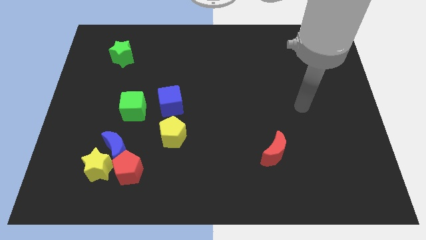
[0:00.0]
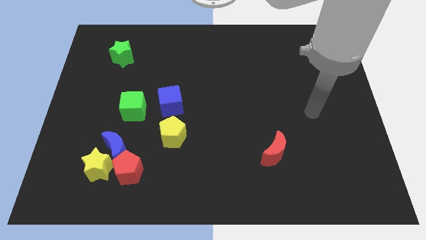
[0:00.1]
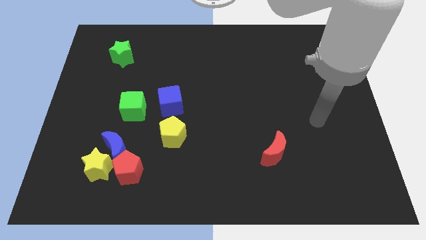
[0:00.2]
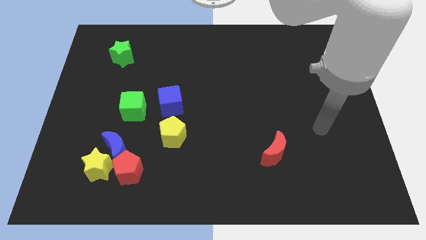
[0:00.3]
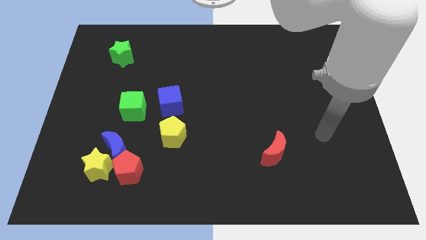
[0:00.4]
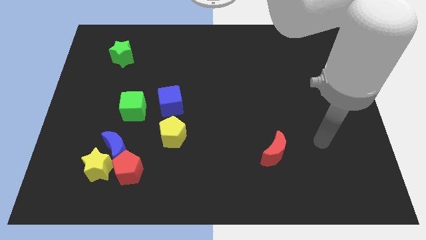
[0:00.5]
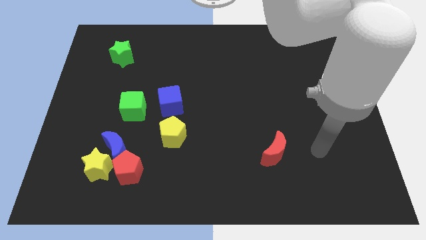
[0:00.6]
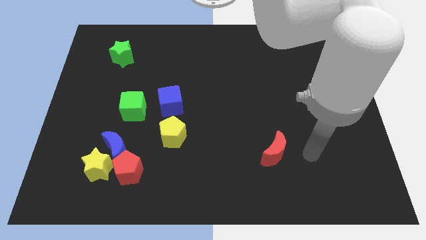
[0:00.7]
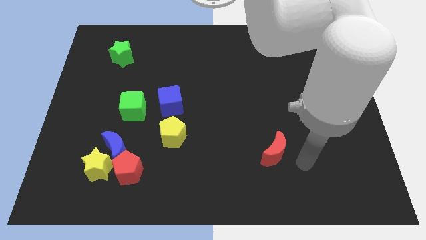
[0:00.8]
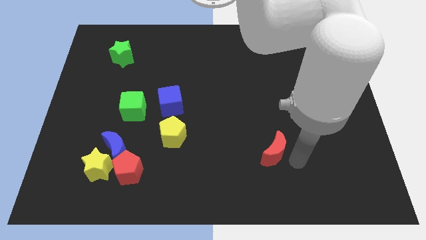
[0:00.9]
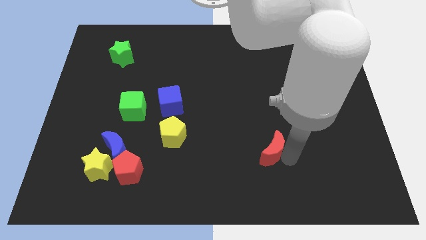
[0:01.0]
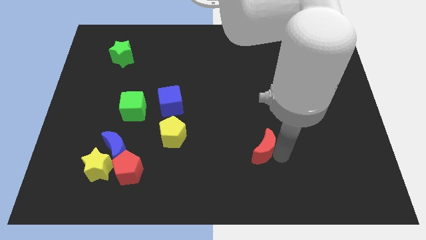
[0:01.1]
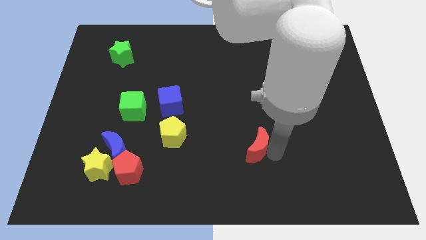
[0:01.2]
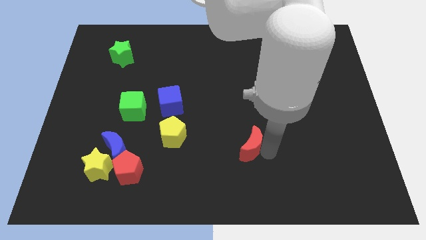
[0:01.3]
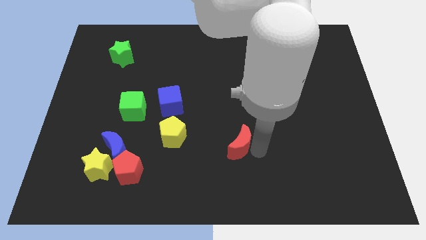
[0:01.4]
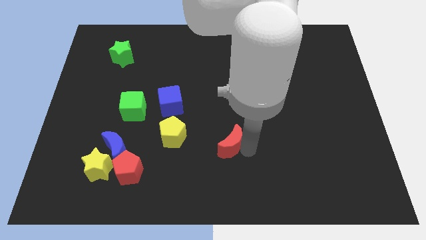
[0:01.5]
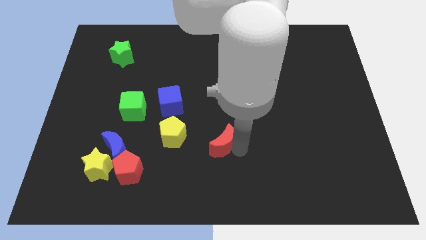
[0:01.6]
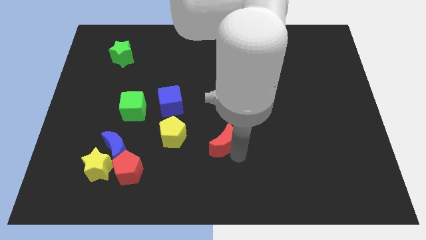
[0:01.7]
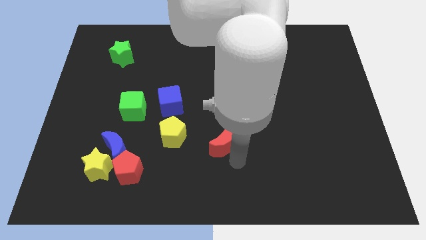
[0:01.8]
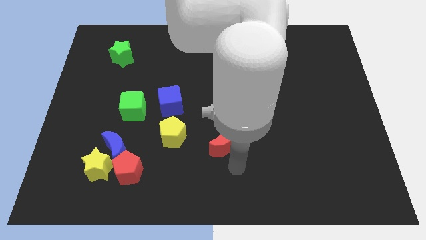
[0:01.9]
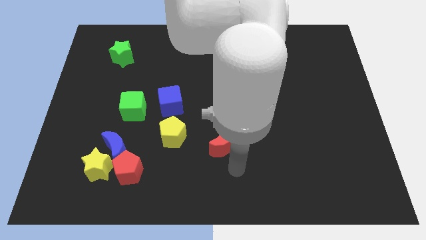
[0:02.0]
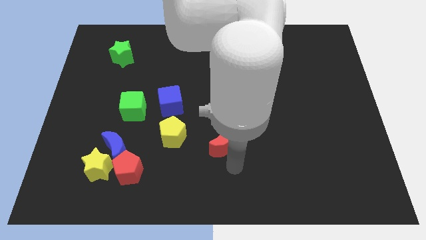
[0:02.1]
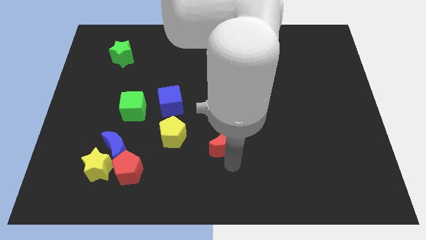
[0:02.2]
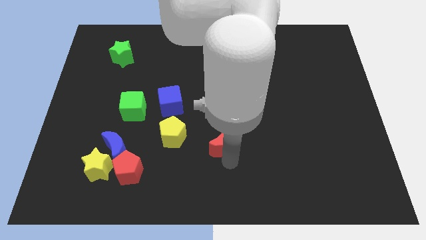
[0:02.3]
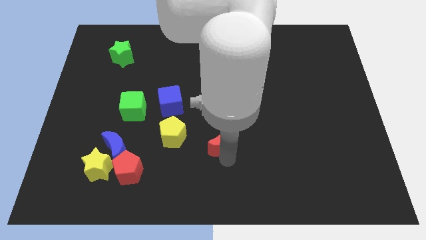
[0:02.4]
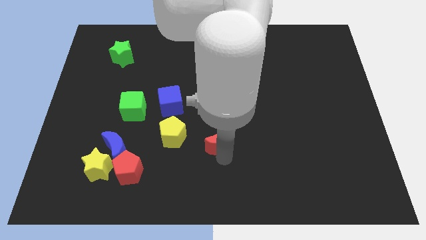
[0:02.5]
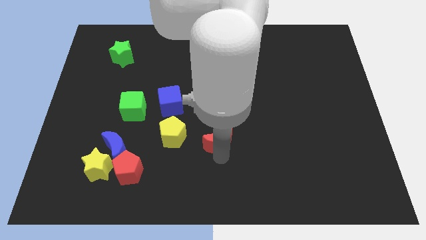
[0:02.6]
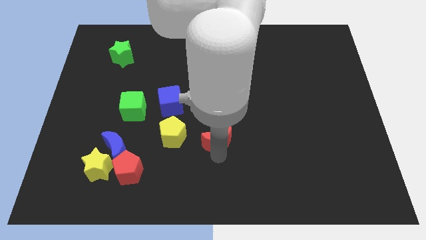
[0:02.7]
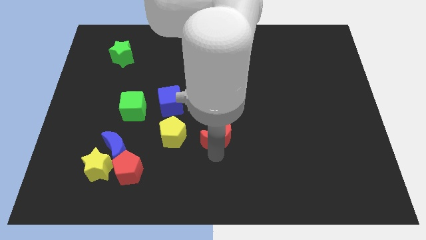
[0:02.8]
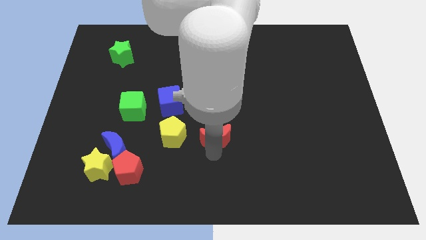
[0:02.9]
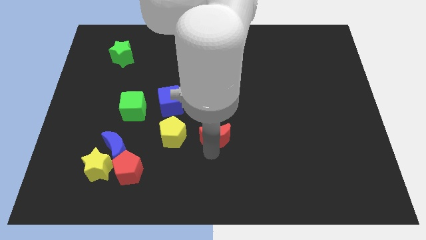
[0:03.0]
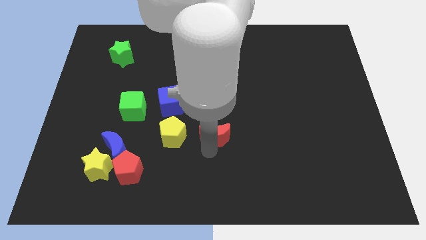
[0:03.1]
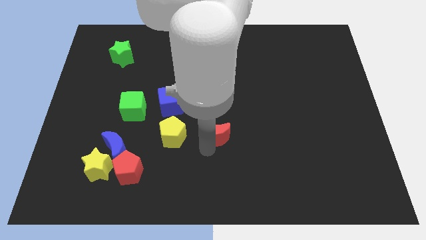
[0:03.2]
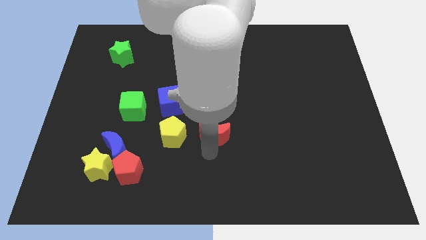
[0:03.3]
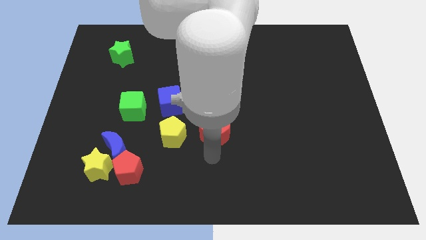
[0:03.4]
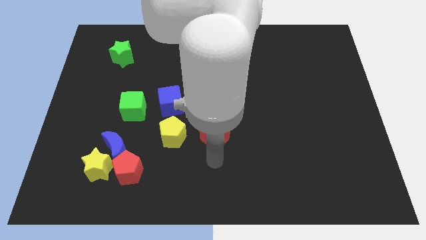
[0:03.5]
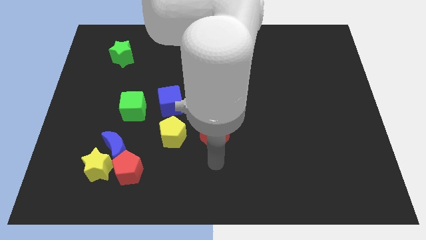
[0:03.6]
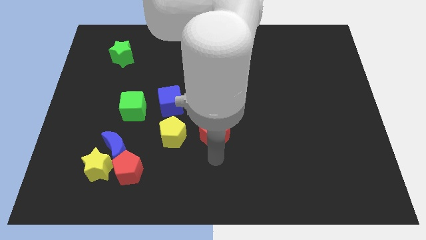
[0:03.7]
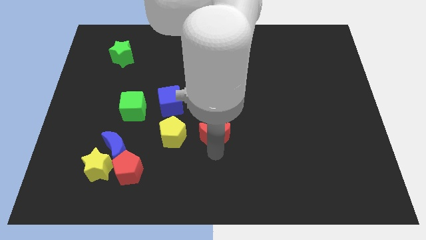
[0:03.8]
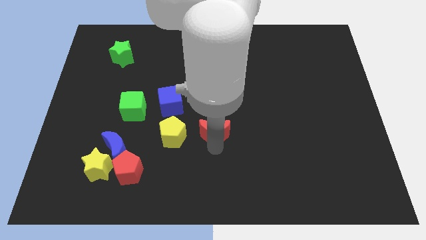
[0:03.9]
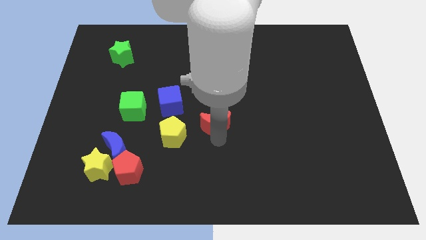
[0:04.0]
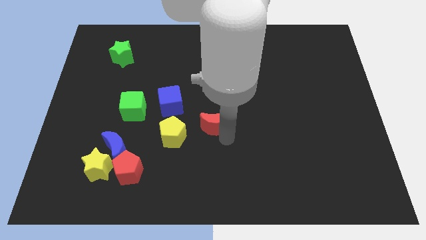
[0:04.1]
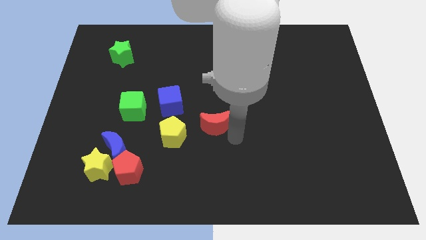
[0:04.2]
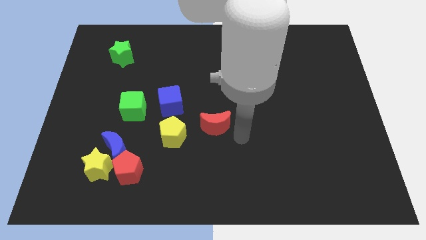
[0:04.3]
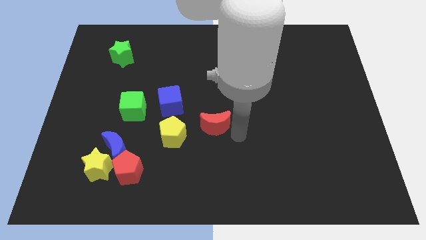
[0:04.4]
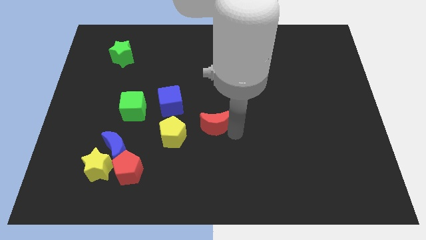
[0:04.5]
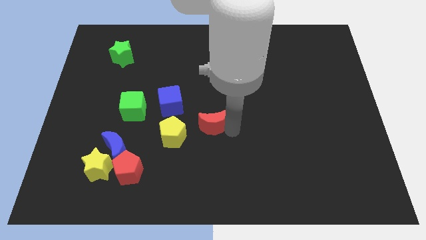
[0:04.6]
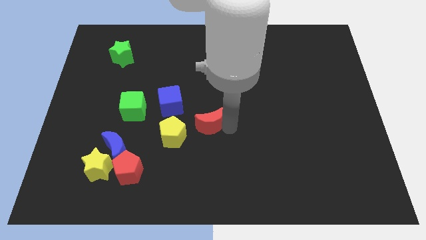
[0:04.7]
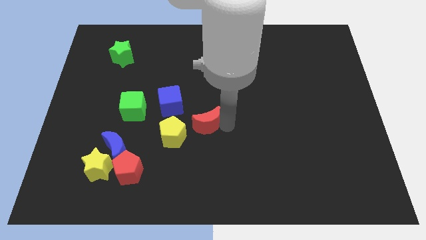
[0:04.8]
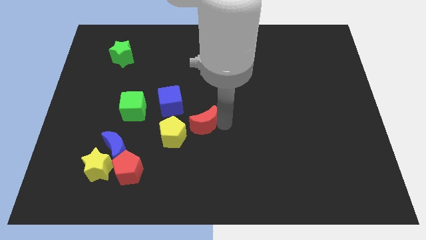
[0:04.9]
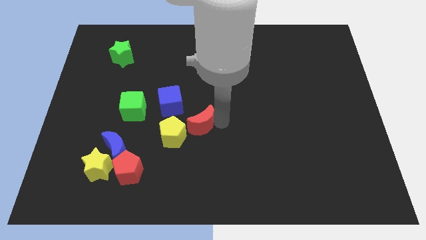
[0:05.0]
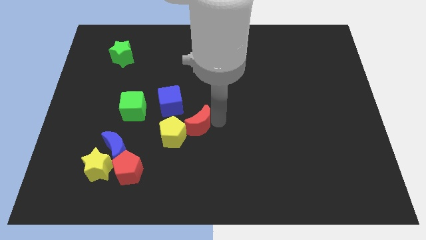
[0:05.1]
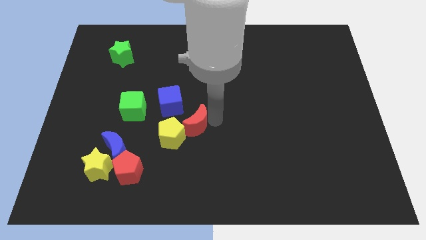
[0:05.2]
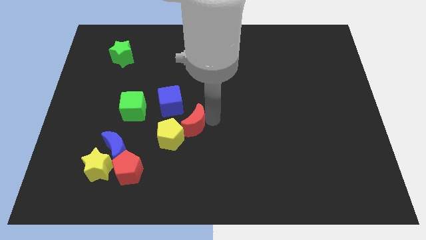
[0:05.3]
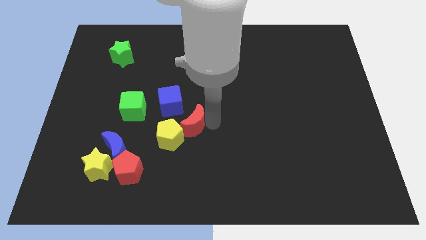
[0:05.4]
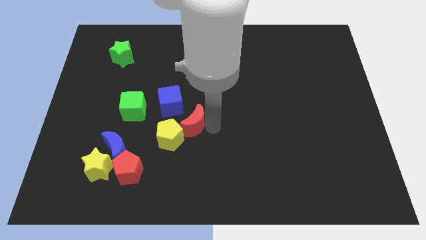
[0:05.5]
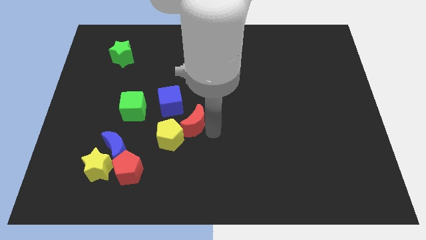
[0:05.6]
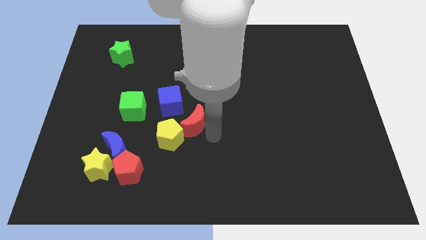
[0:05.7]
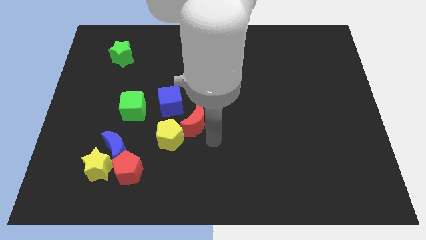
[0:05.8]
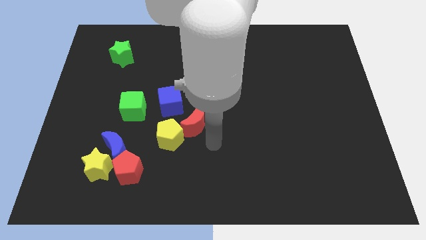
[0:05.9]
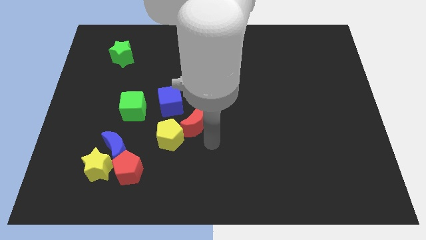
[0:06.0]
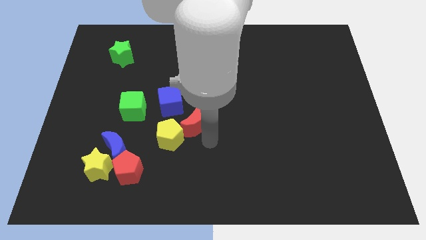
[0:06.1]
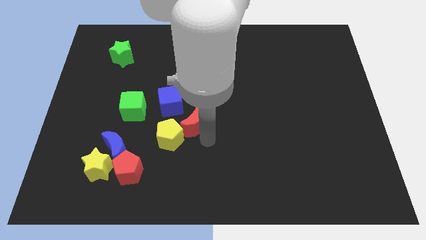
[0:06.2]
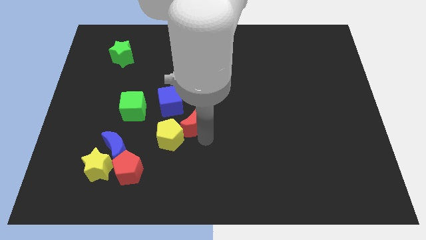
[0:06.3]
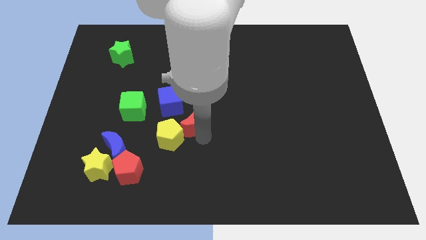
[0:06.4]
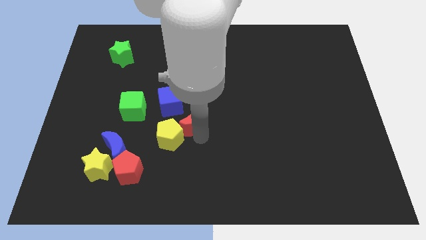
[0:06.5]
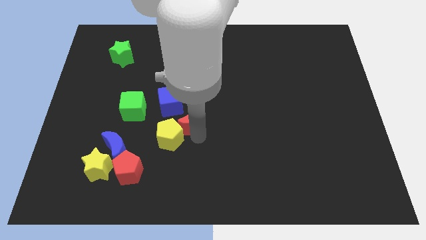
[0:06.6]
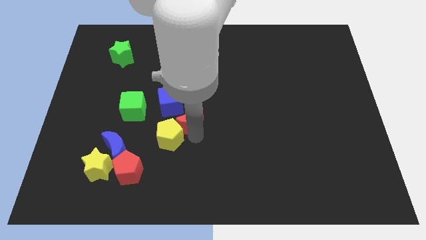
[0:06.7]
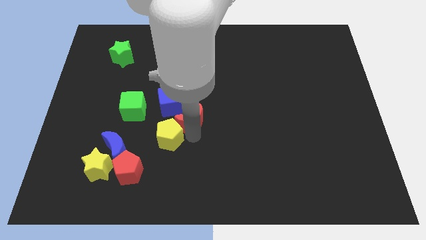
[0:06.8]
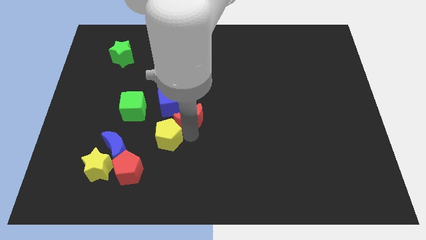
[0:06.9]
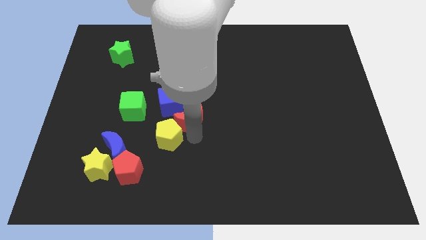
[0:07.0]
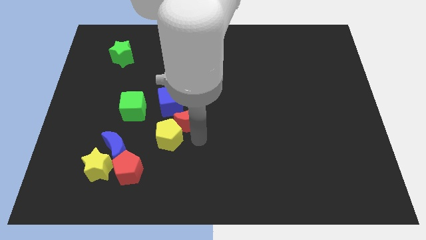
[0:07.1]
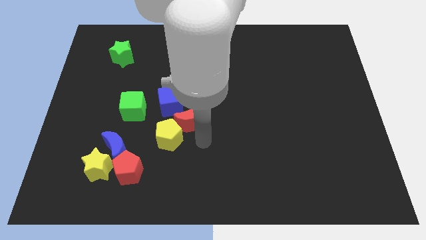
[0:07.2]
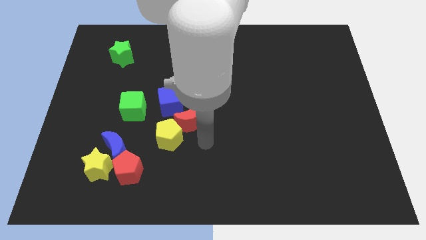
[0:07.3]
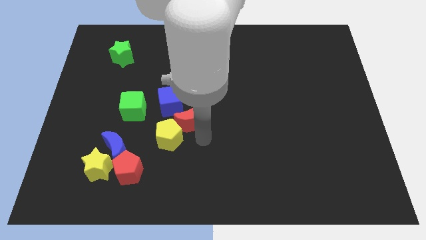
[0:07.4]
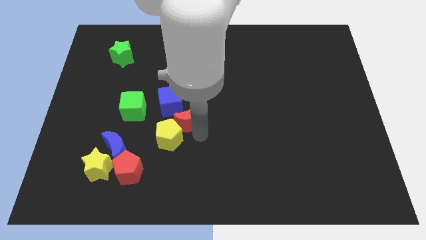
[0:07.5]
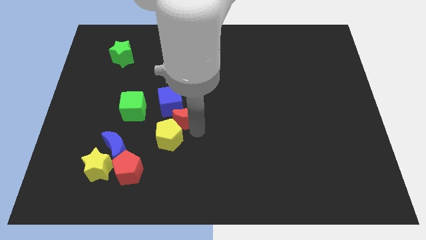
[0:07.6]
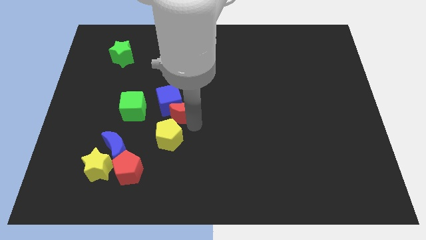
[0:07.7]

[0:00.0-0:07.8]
put the red moon next to the blue cube

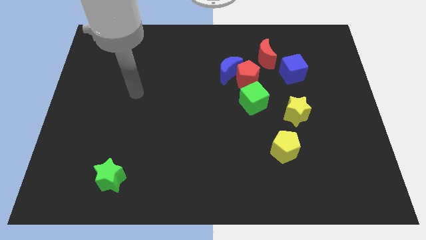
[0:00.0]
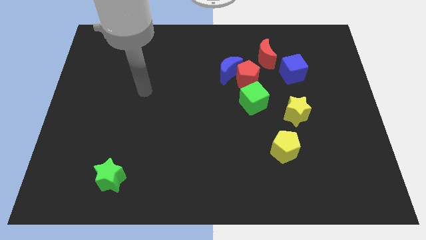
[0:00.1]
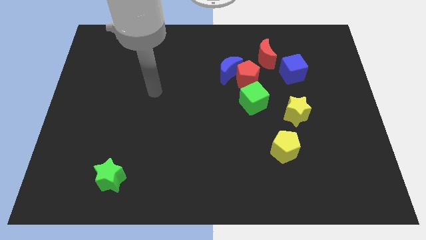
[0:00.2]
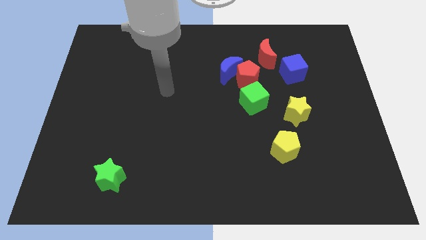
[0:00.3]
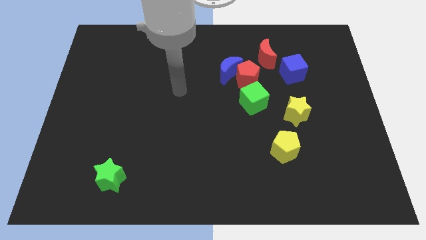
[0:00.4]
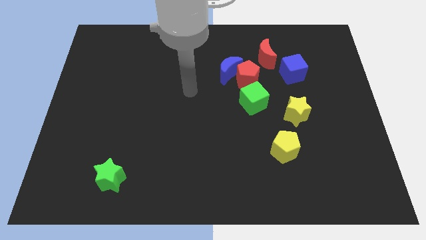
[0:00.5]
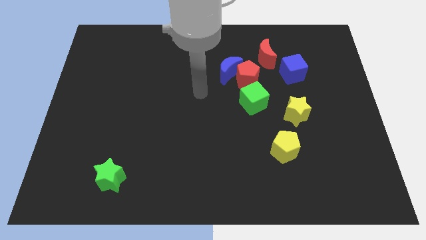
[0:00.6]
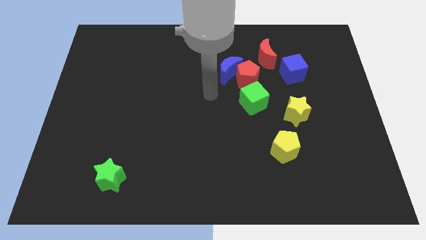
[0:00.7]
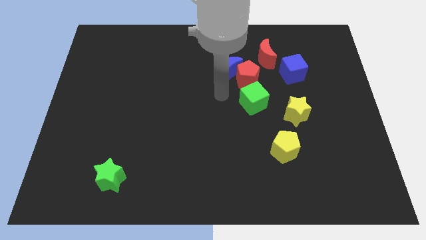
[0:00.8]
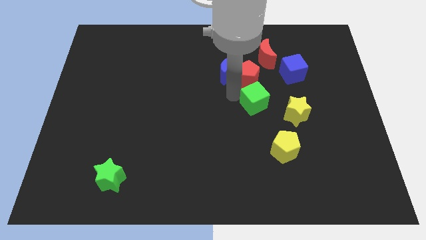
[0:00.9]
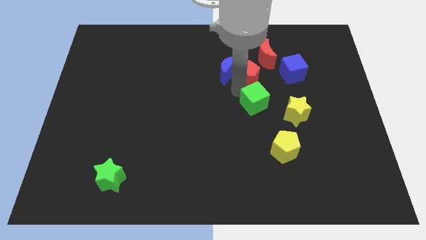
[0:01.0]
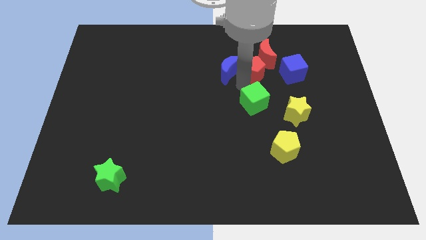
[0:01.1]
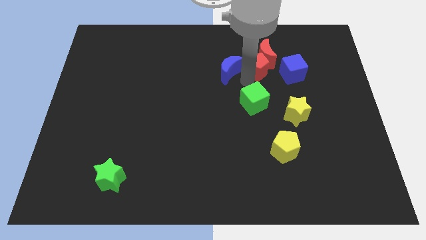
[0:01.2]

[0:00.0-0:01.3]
push the red pentagon close to the red moon
